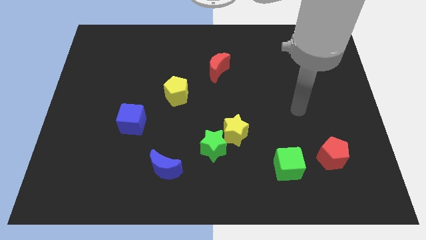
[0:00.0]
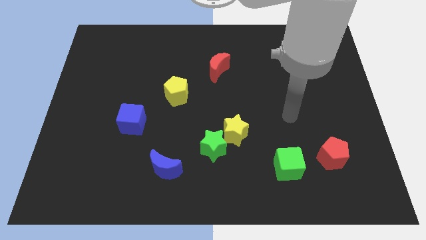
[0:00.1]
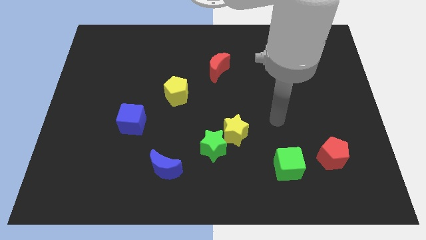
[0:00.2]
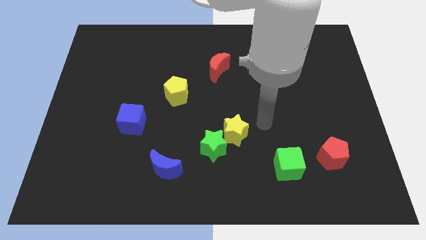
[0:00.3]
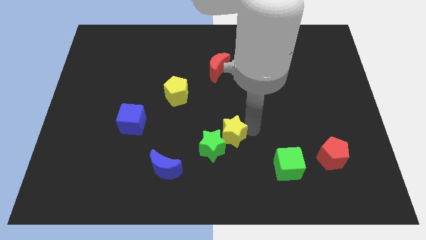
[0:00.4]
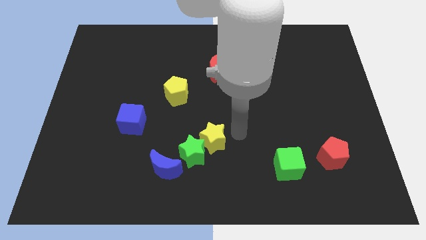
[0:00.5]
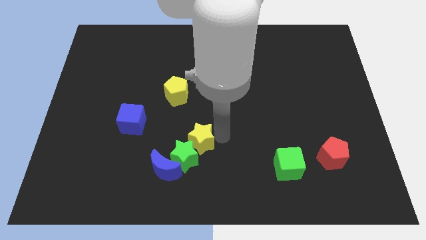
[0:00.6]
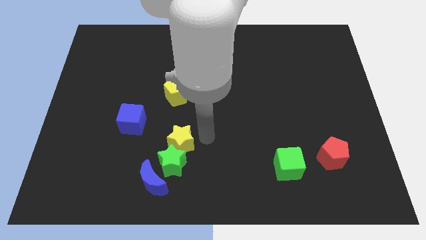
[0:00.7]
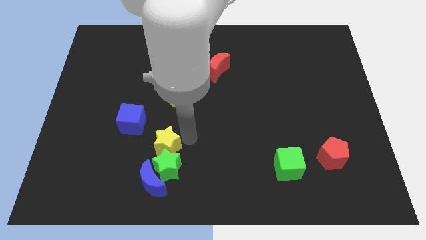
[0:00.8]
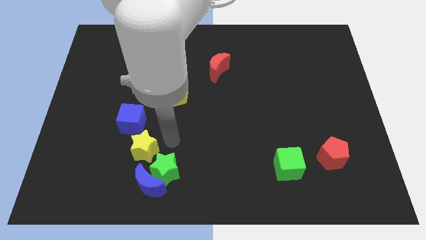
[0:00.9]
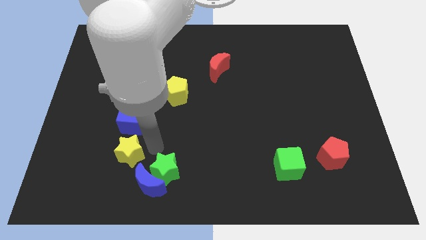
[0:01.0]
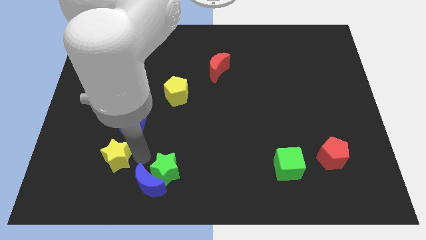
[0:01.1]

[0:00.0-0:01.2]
move the green star away from the yellow star

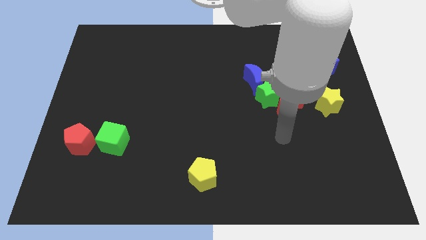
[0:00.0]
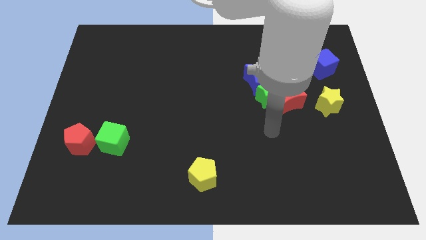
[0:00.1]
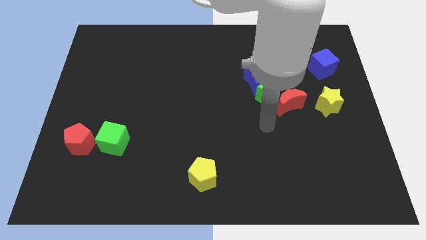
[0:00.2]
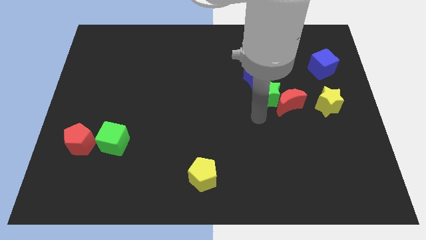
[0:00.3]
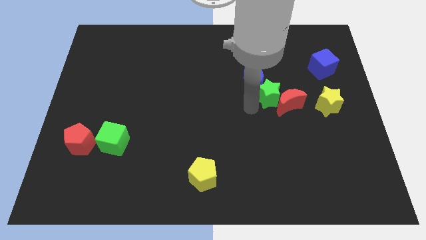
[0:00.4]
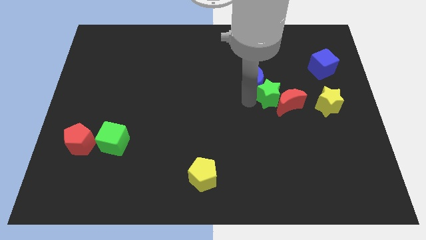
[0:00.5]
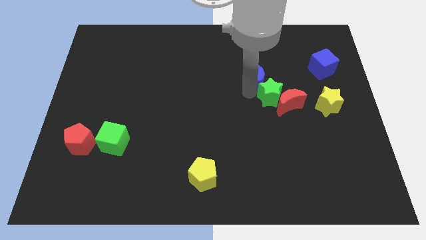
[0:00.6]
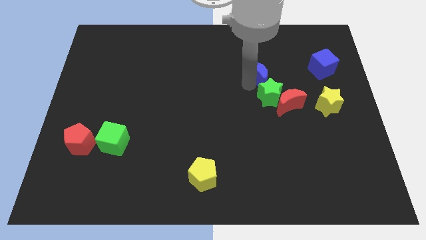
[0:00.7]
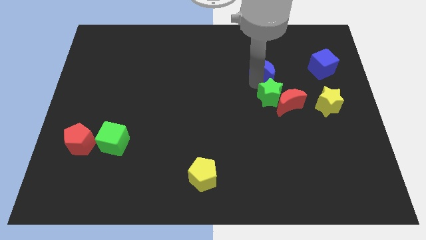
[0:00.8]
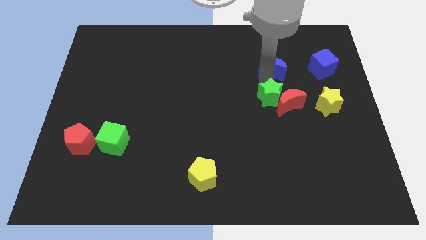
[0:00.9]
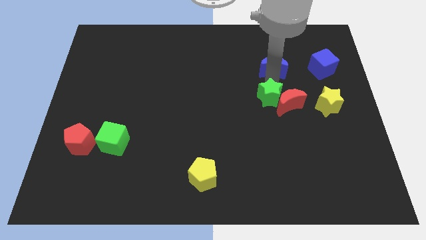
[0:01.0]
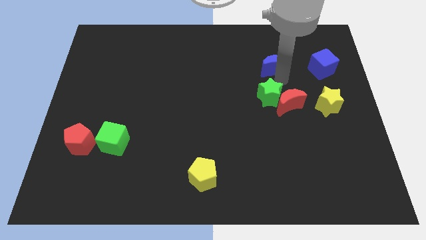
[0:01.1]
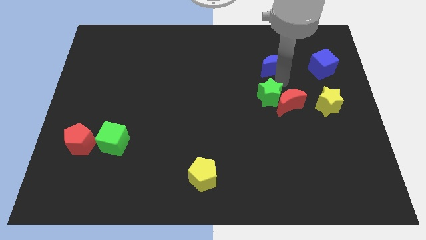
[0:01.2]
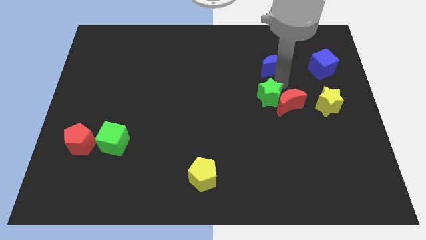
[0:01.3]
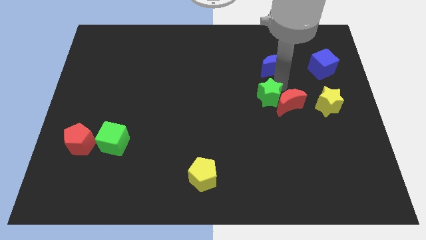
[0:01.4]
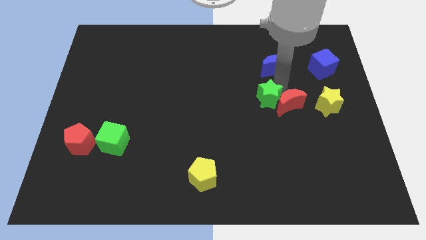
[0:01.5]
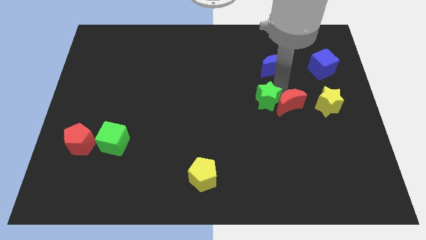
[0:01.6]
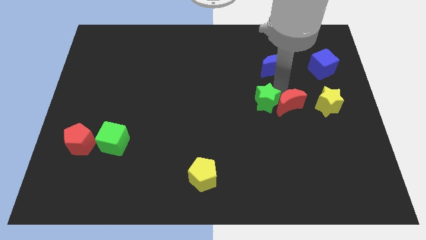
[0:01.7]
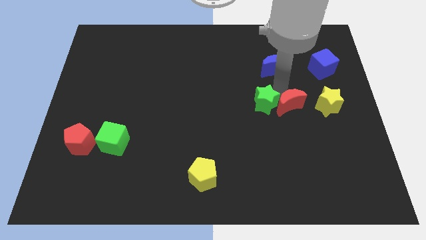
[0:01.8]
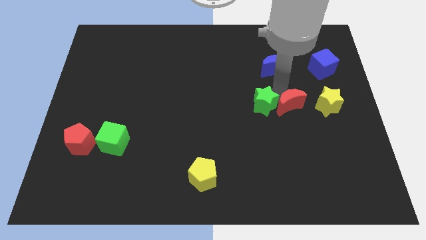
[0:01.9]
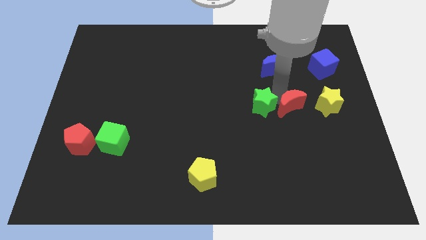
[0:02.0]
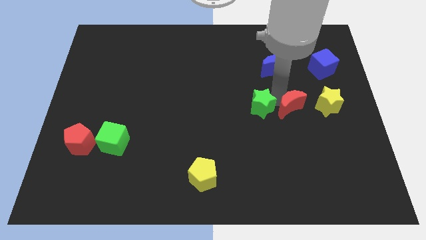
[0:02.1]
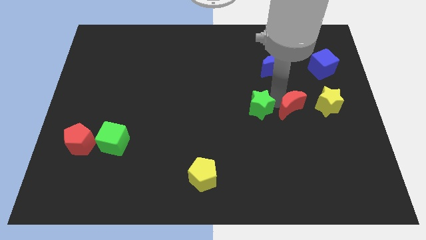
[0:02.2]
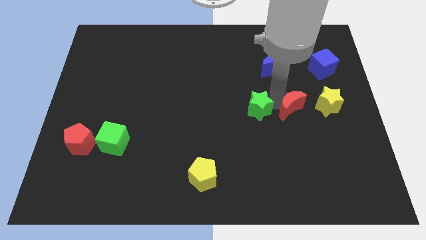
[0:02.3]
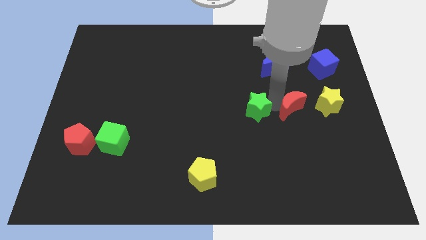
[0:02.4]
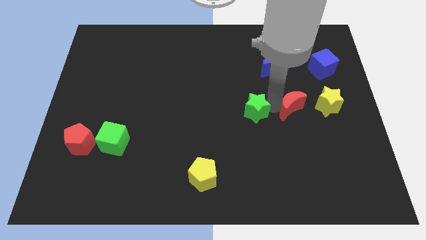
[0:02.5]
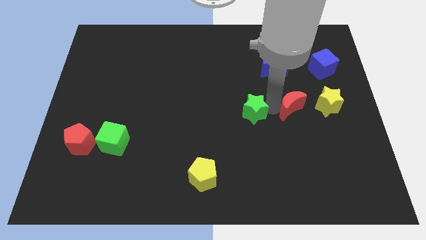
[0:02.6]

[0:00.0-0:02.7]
move the green star away from the red moon and blue moon

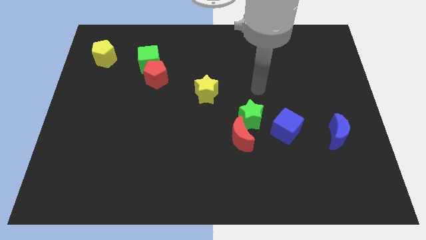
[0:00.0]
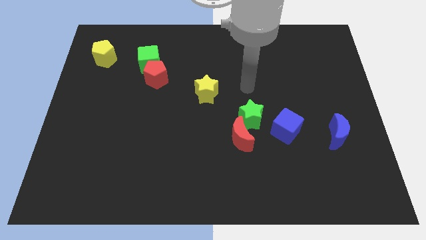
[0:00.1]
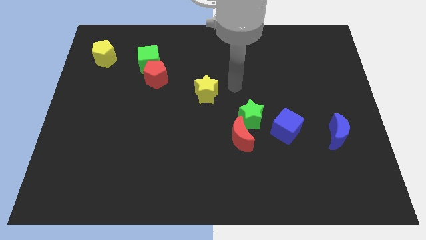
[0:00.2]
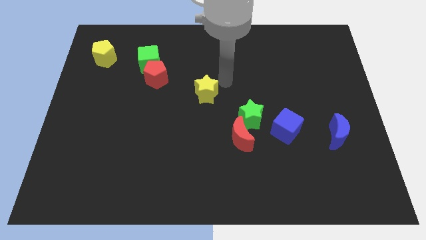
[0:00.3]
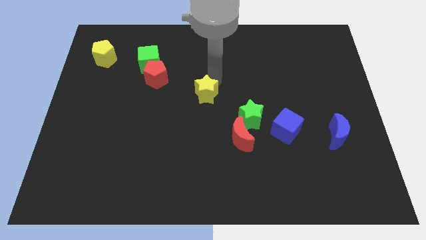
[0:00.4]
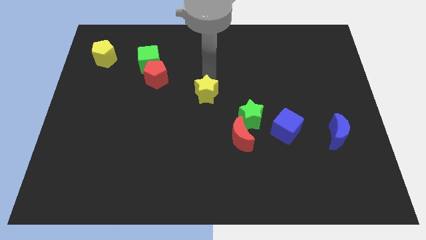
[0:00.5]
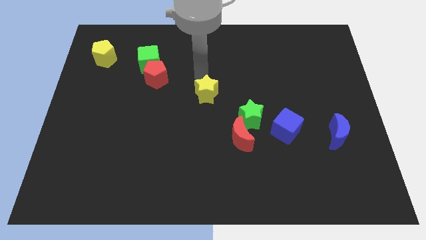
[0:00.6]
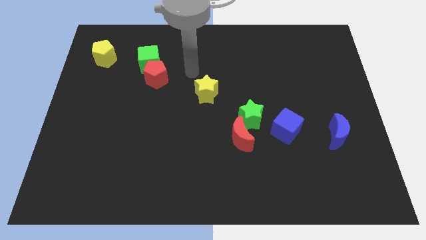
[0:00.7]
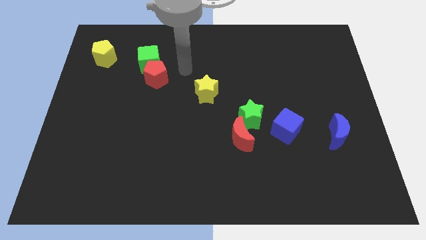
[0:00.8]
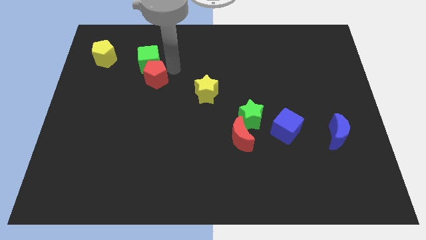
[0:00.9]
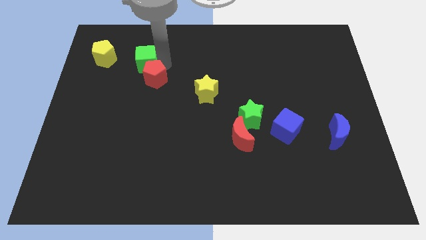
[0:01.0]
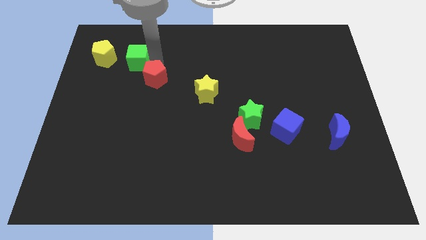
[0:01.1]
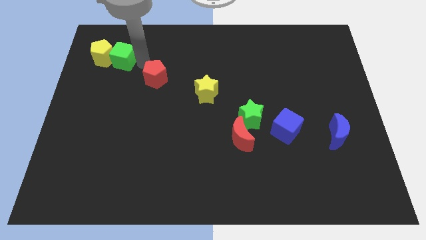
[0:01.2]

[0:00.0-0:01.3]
separate the red pentagon from the green cube

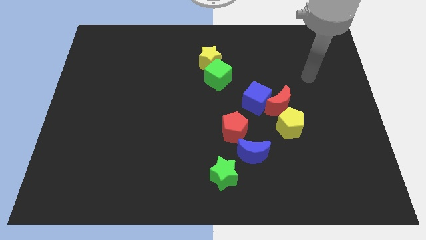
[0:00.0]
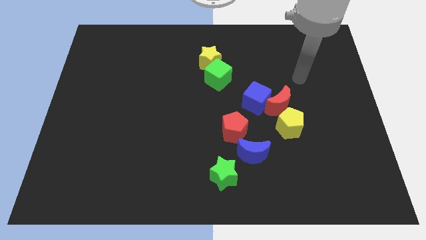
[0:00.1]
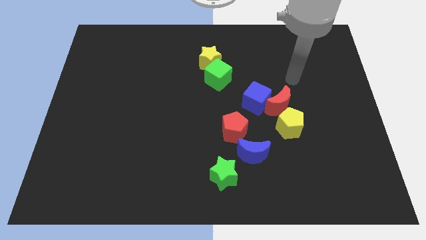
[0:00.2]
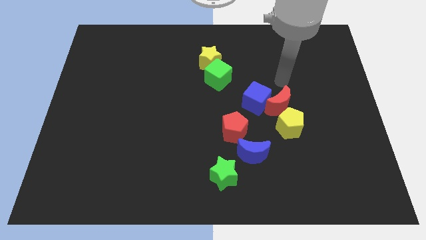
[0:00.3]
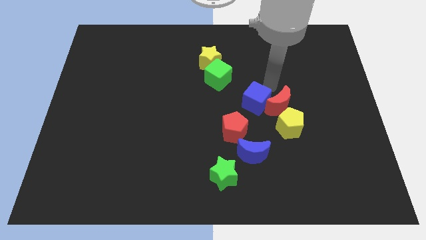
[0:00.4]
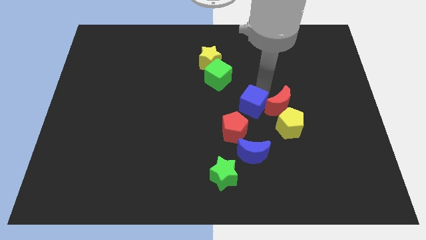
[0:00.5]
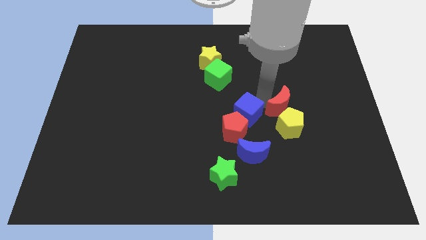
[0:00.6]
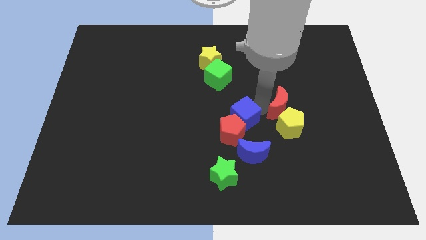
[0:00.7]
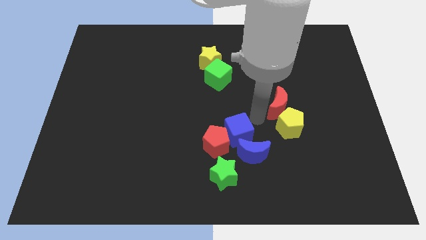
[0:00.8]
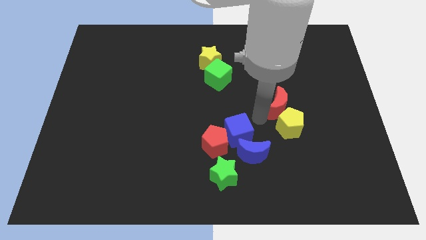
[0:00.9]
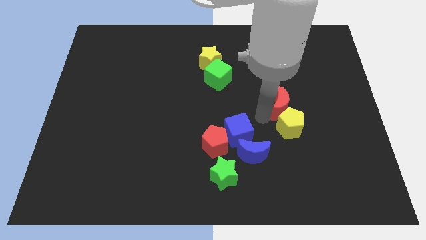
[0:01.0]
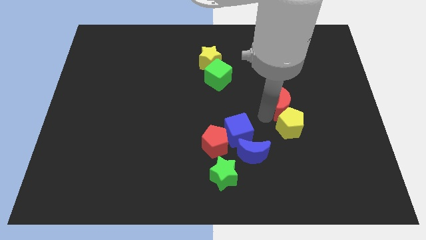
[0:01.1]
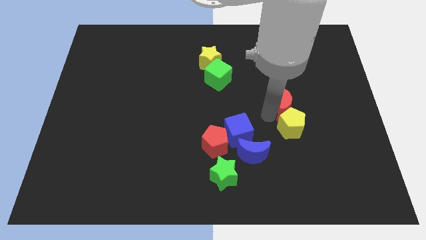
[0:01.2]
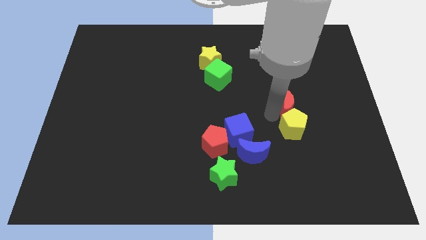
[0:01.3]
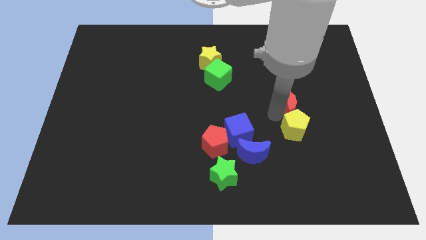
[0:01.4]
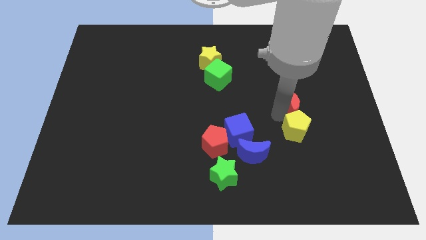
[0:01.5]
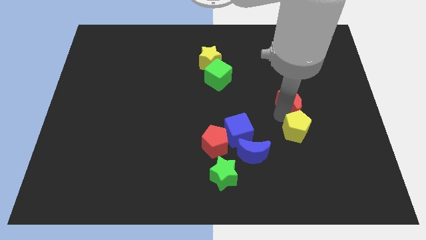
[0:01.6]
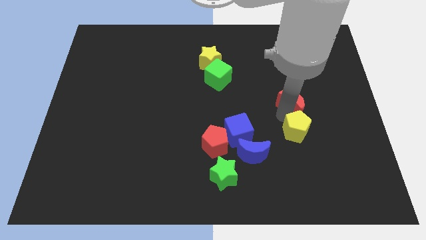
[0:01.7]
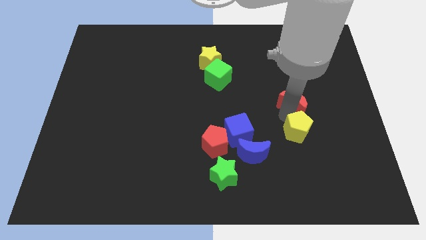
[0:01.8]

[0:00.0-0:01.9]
move the red moon away from the blue cube and yellow pentagon

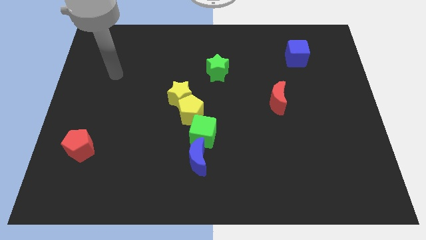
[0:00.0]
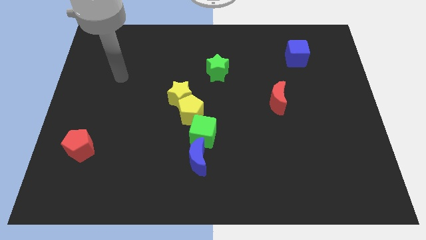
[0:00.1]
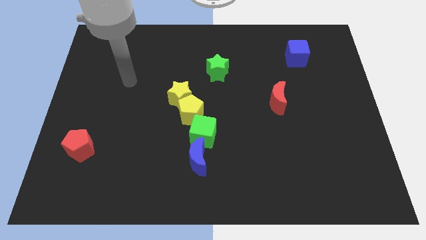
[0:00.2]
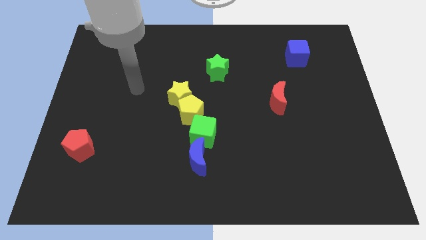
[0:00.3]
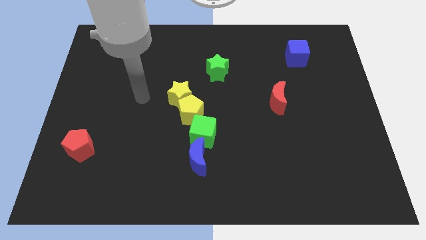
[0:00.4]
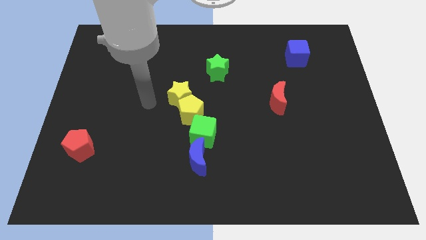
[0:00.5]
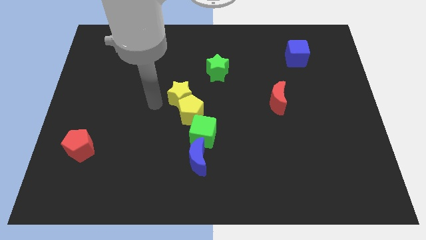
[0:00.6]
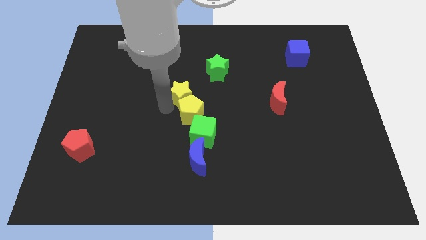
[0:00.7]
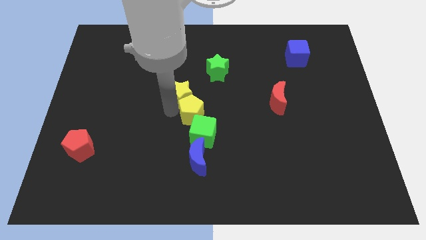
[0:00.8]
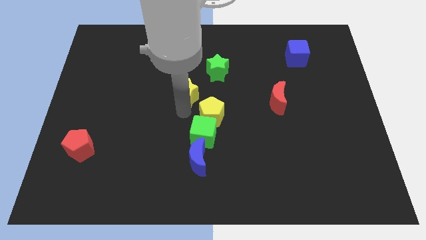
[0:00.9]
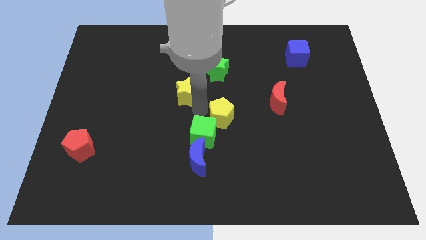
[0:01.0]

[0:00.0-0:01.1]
pull the yellow star apart from the yellow pentagon

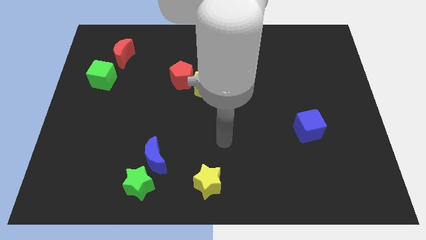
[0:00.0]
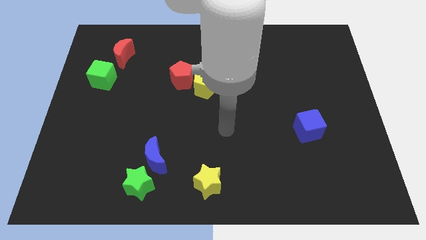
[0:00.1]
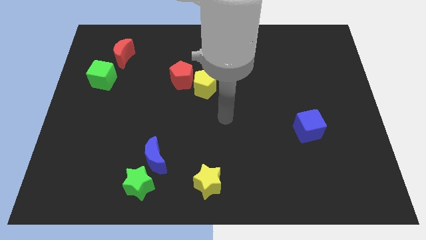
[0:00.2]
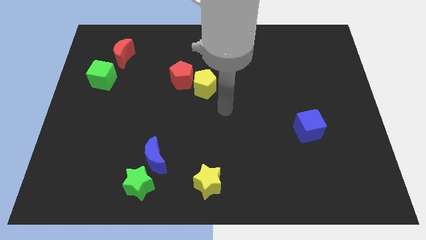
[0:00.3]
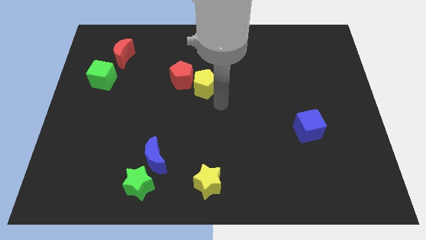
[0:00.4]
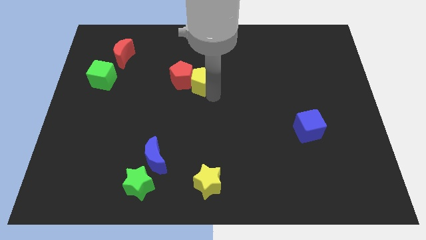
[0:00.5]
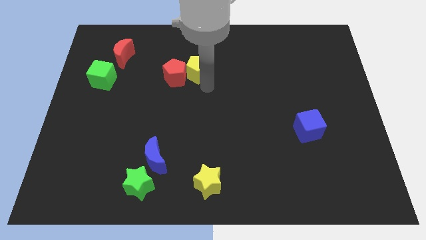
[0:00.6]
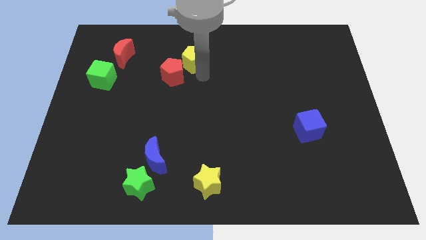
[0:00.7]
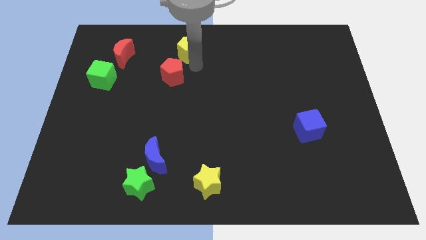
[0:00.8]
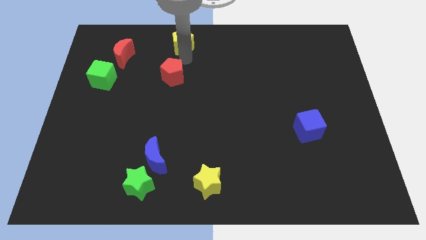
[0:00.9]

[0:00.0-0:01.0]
move the red pentagon away from the yellow pentagon
